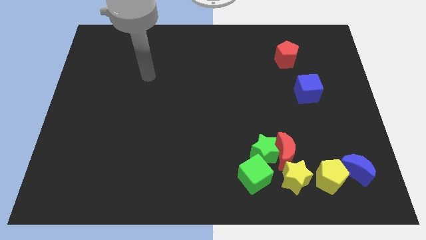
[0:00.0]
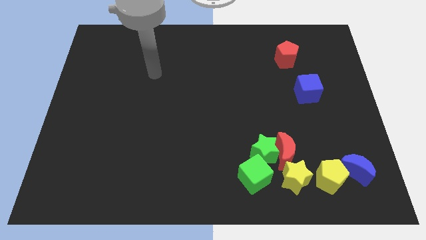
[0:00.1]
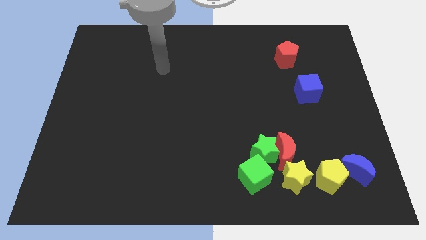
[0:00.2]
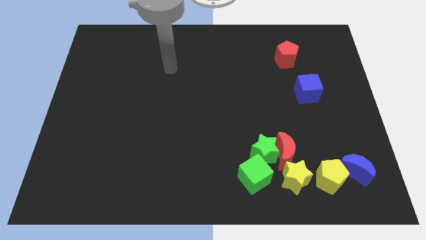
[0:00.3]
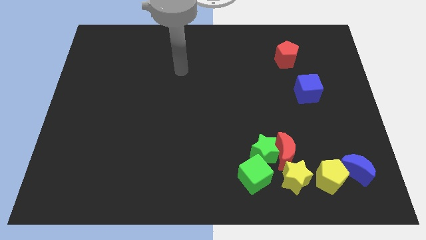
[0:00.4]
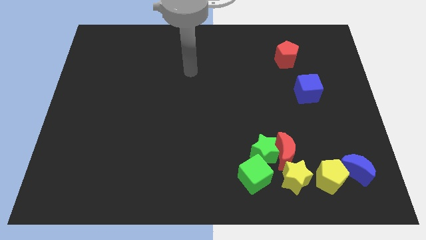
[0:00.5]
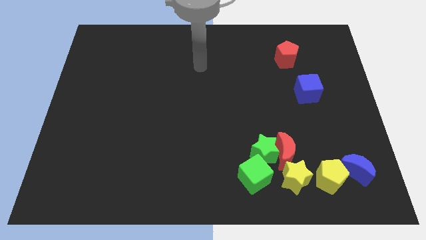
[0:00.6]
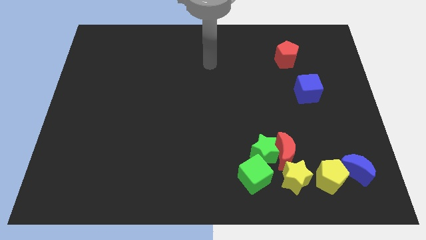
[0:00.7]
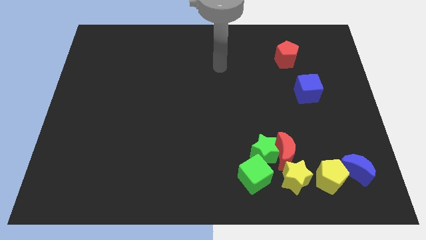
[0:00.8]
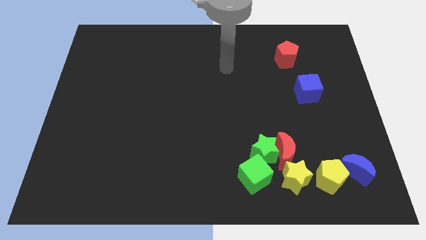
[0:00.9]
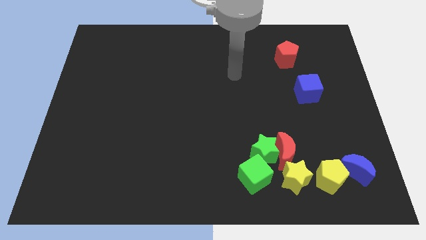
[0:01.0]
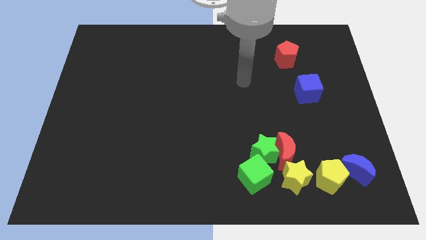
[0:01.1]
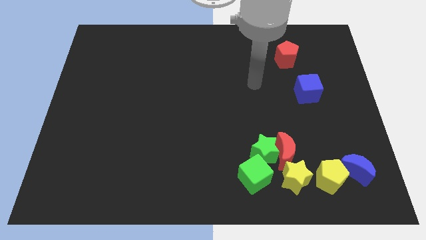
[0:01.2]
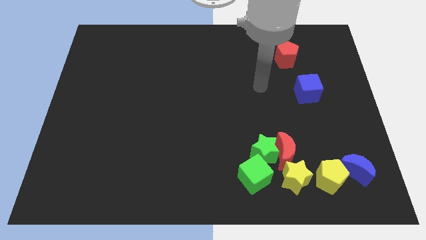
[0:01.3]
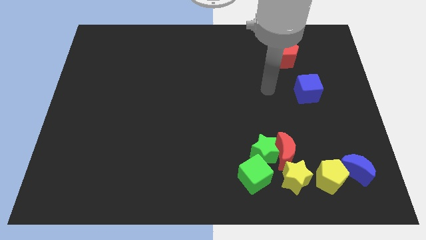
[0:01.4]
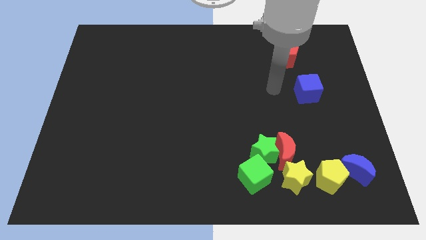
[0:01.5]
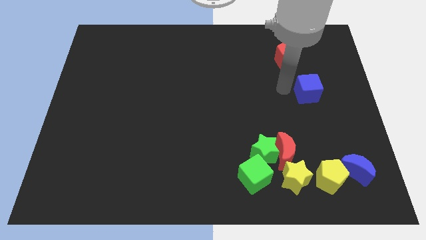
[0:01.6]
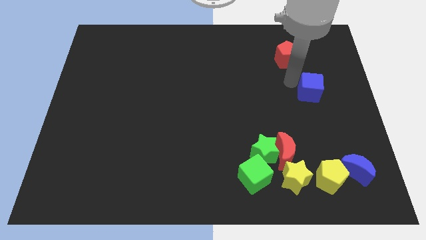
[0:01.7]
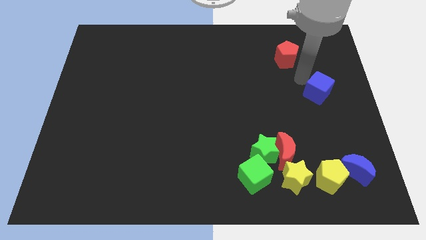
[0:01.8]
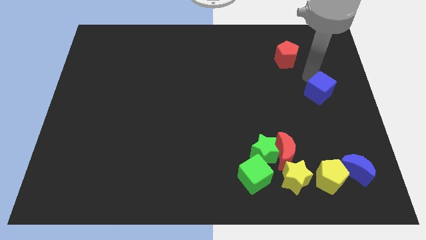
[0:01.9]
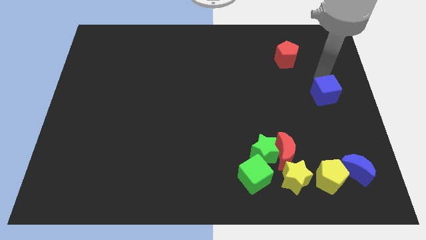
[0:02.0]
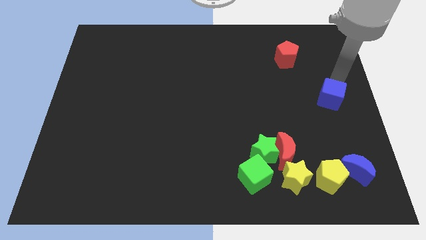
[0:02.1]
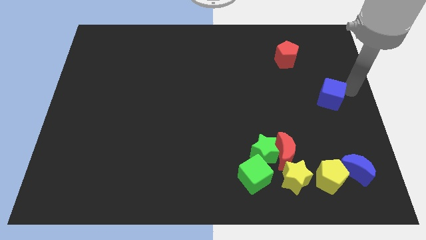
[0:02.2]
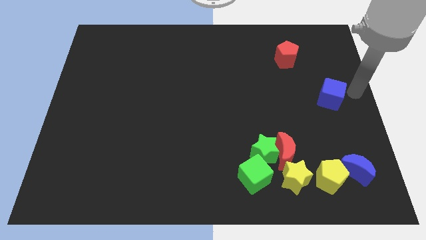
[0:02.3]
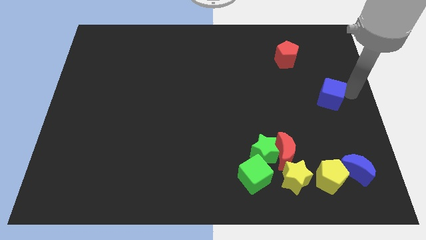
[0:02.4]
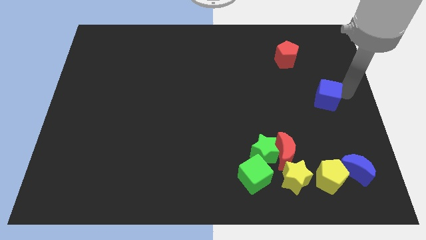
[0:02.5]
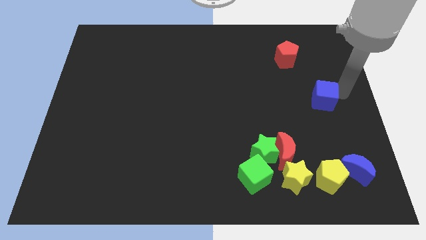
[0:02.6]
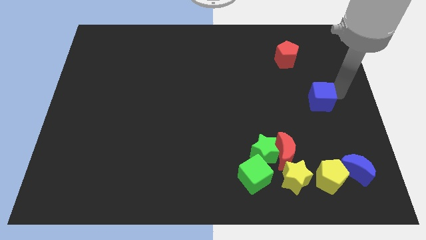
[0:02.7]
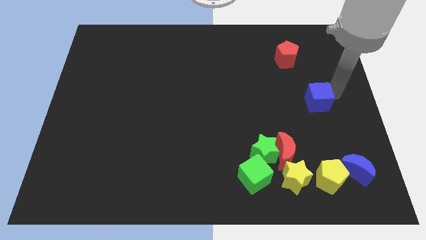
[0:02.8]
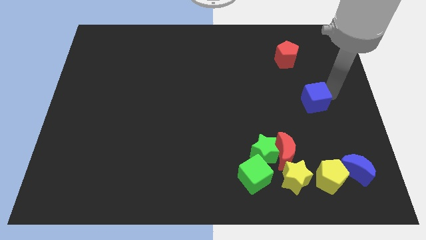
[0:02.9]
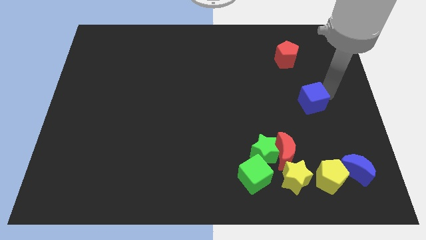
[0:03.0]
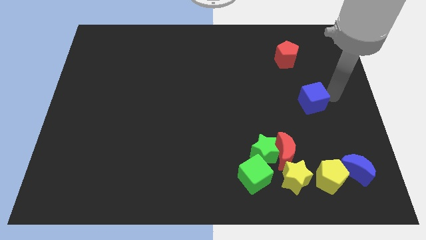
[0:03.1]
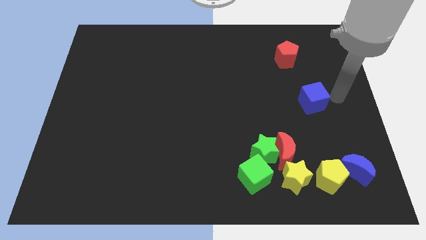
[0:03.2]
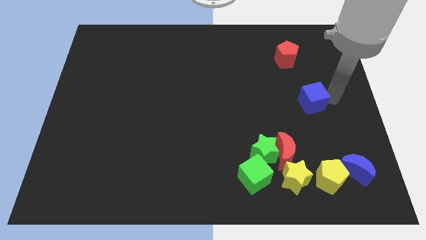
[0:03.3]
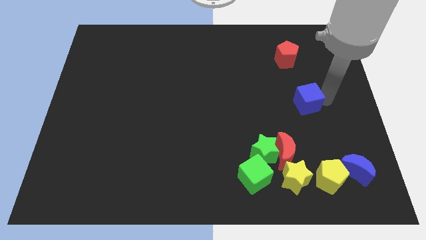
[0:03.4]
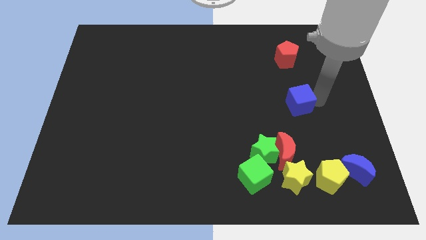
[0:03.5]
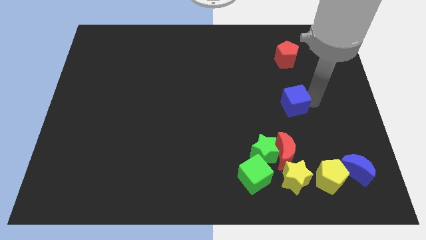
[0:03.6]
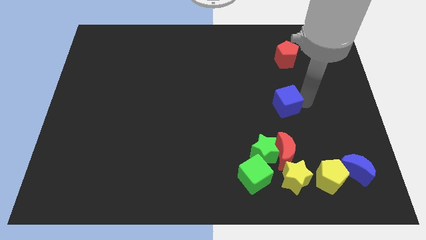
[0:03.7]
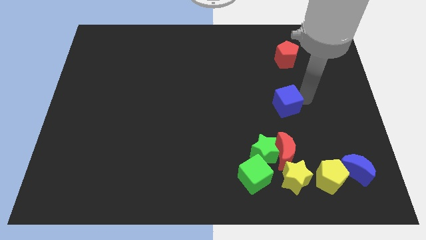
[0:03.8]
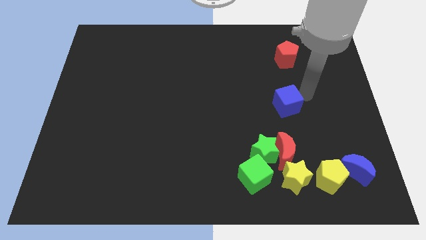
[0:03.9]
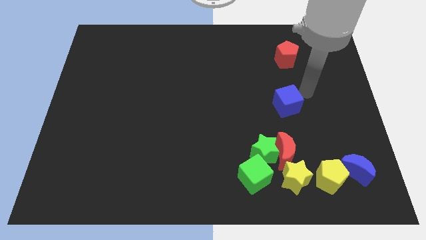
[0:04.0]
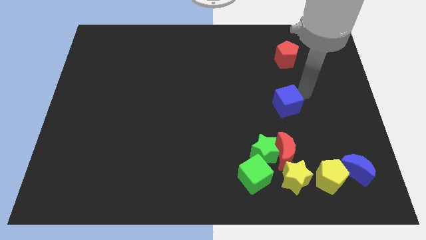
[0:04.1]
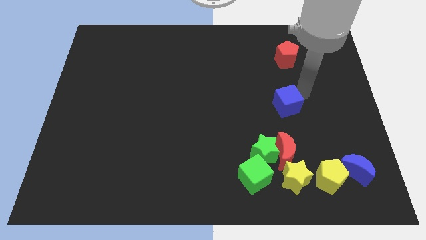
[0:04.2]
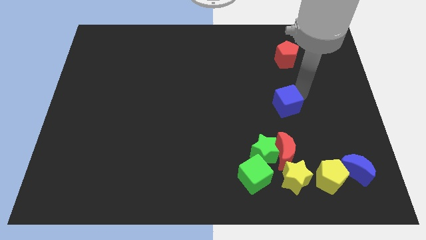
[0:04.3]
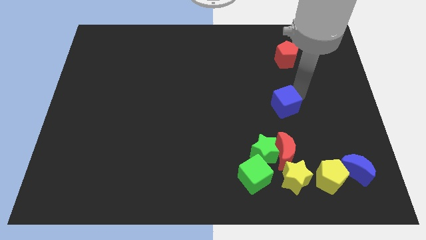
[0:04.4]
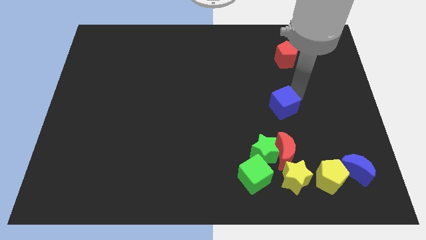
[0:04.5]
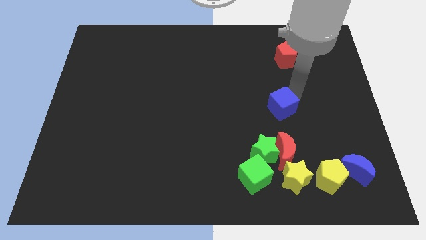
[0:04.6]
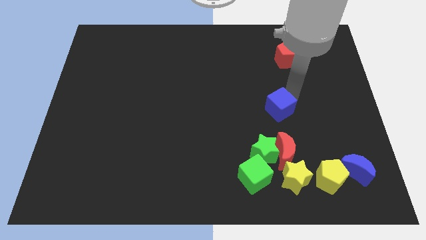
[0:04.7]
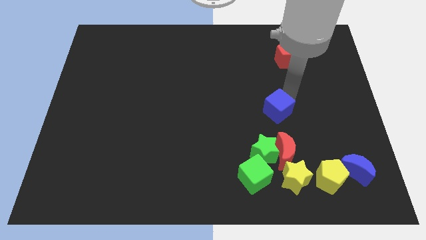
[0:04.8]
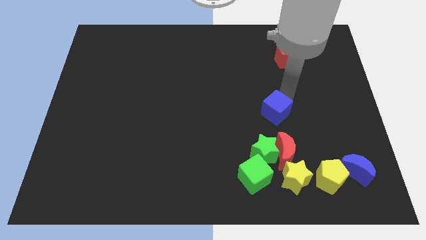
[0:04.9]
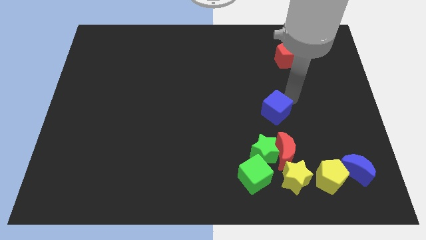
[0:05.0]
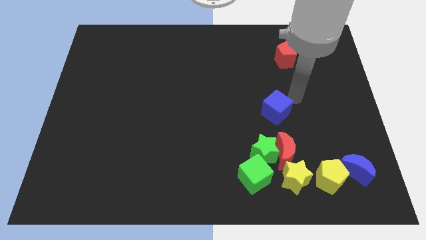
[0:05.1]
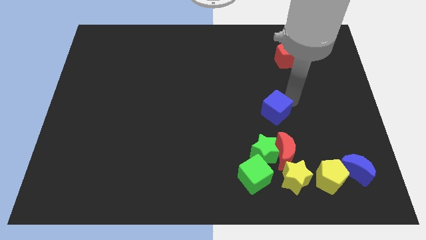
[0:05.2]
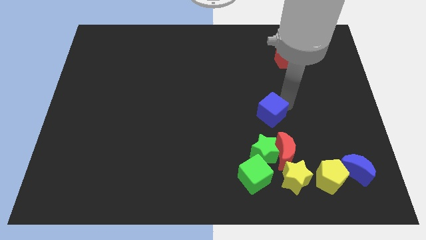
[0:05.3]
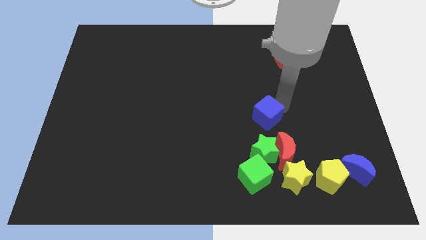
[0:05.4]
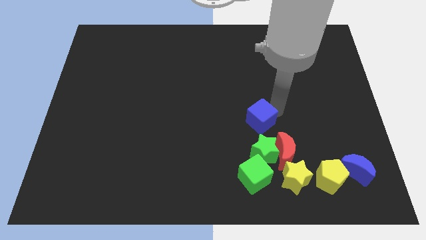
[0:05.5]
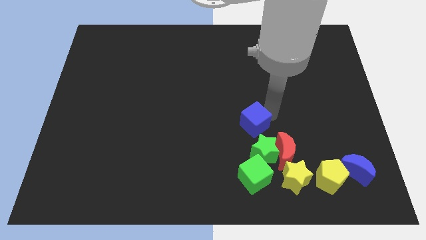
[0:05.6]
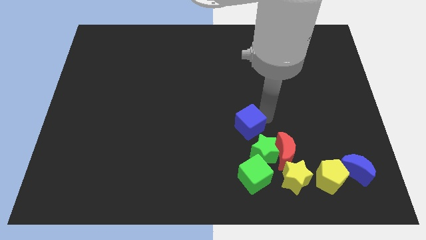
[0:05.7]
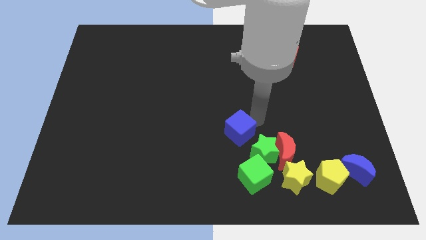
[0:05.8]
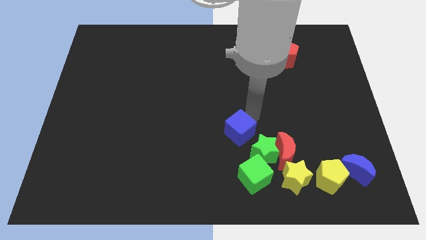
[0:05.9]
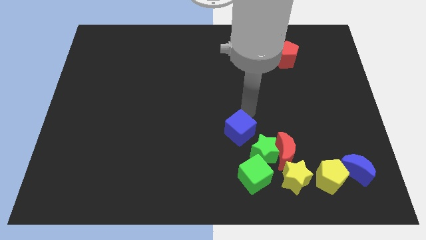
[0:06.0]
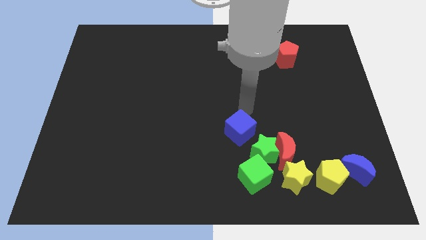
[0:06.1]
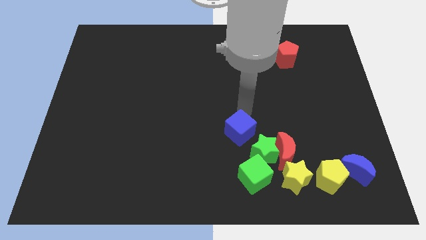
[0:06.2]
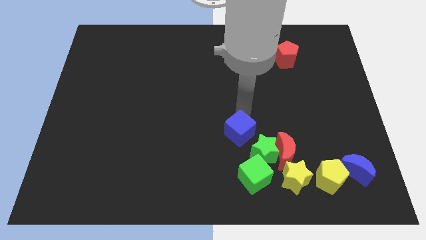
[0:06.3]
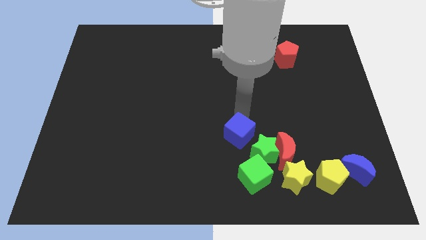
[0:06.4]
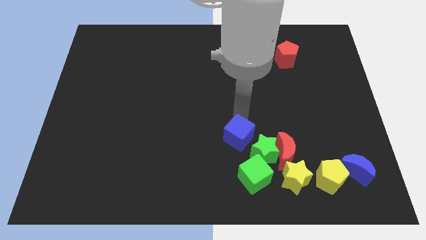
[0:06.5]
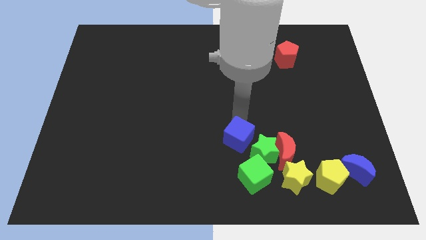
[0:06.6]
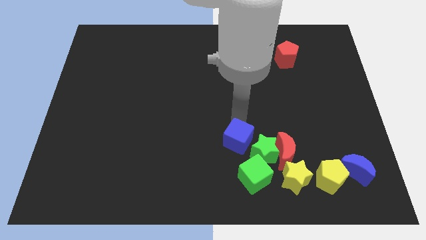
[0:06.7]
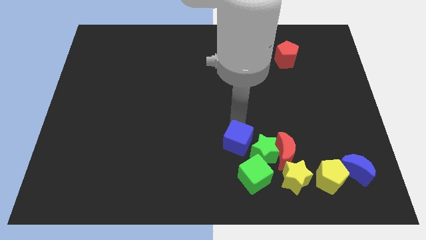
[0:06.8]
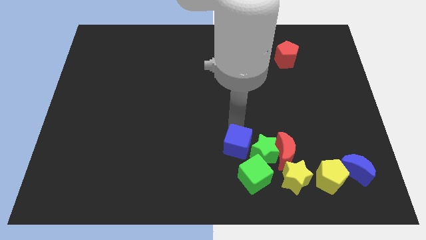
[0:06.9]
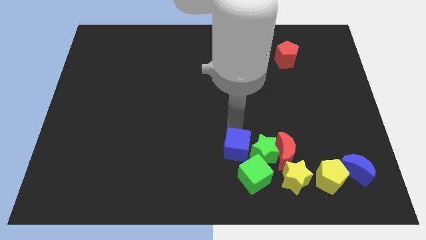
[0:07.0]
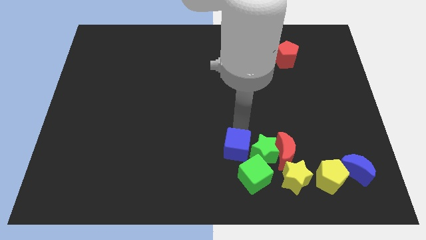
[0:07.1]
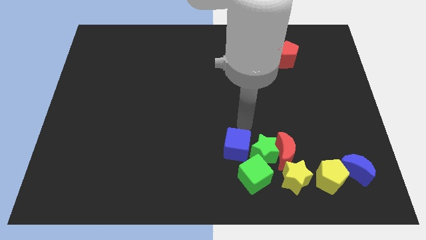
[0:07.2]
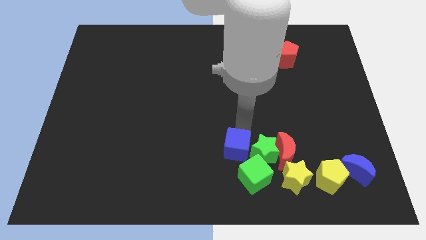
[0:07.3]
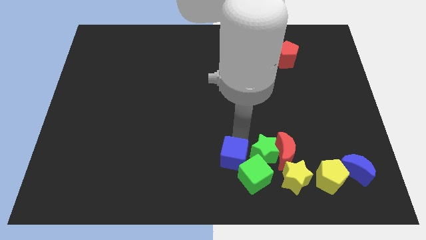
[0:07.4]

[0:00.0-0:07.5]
push the blue cube to the bottom side
